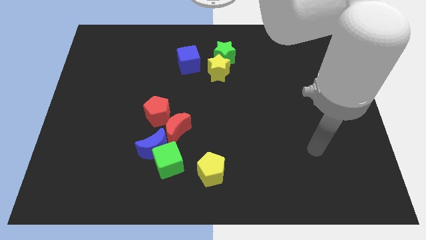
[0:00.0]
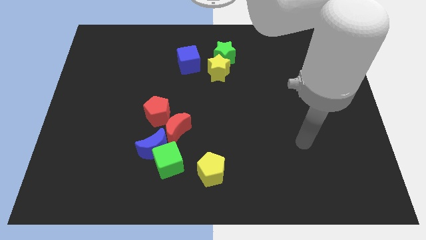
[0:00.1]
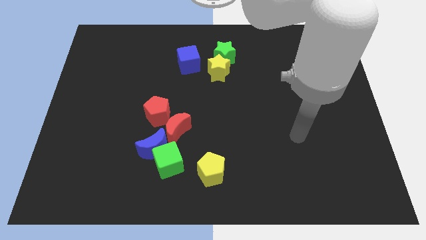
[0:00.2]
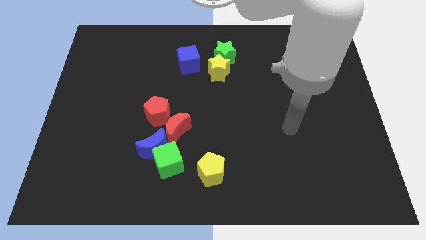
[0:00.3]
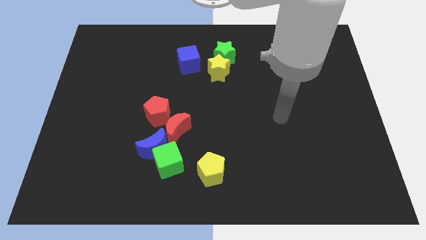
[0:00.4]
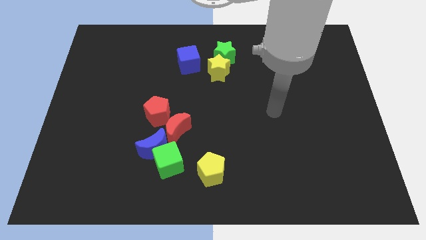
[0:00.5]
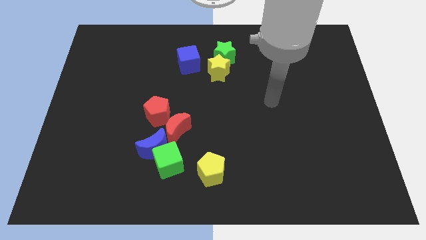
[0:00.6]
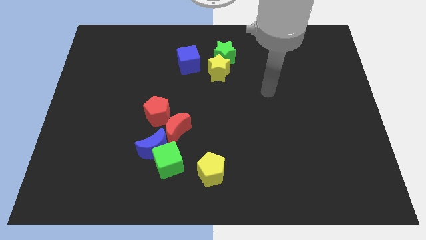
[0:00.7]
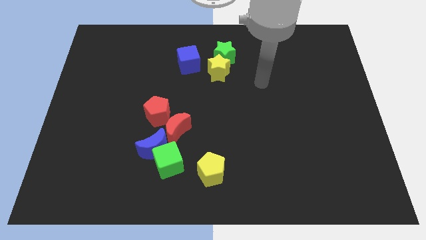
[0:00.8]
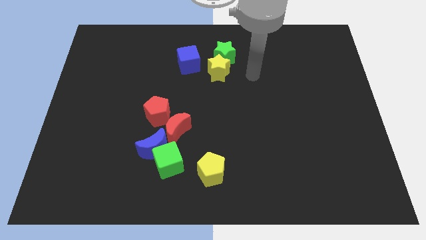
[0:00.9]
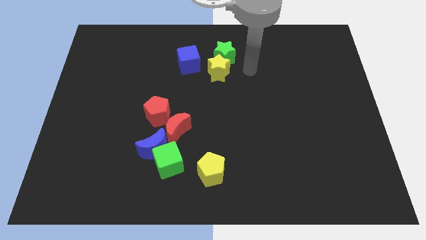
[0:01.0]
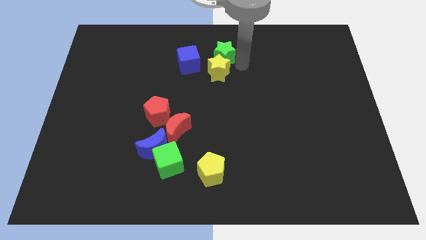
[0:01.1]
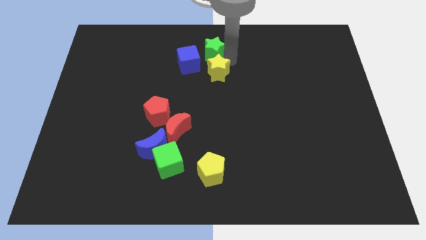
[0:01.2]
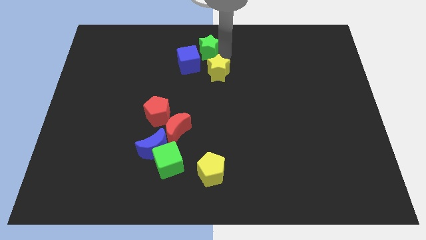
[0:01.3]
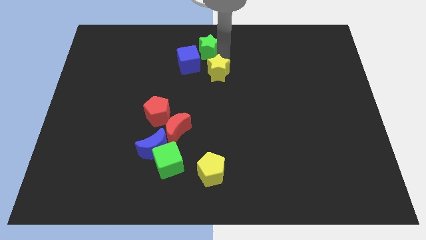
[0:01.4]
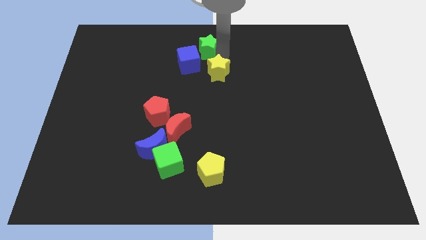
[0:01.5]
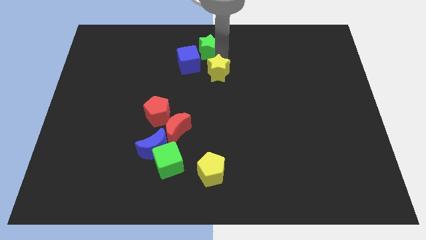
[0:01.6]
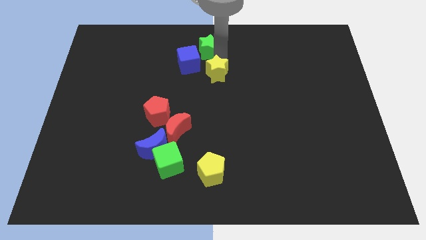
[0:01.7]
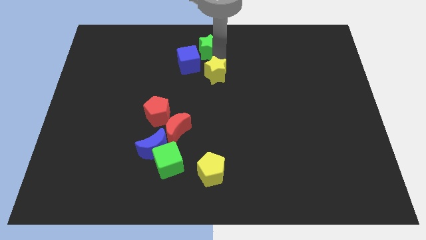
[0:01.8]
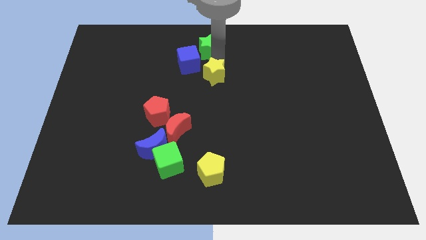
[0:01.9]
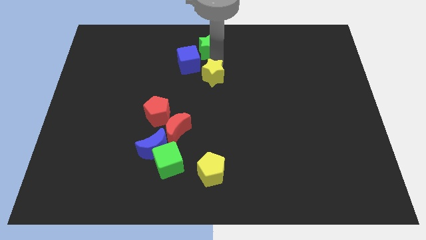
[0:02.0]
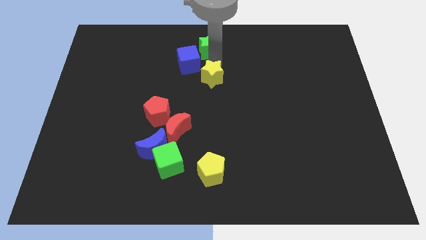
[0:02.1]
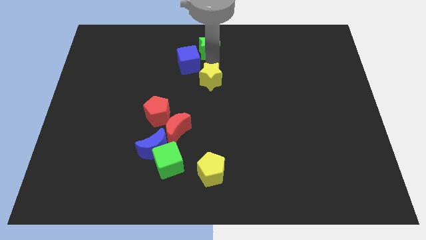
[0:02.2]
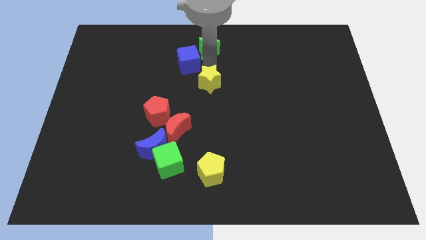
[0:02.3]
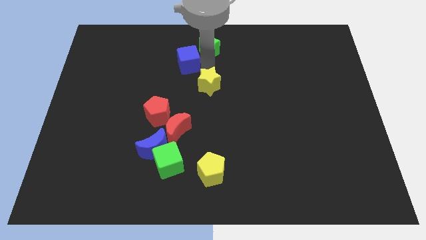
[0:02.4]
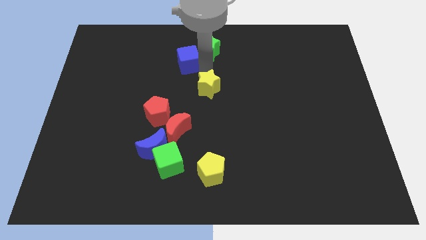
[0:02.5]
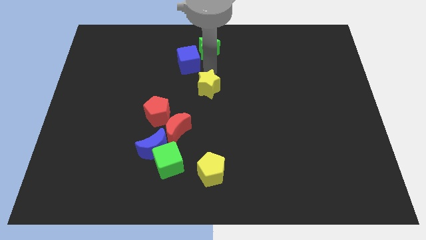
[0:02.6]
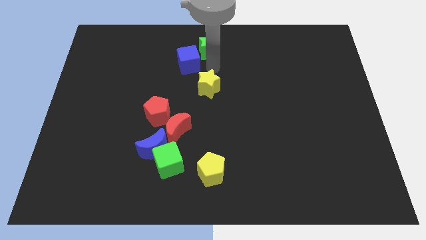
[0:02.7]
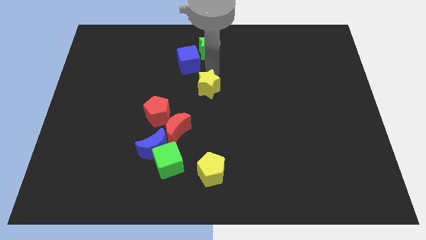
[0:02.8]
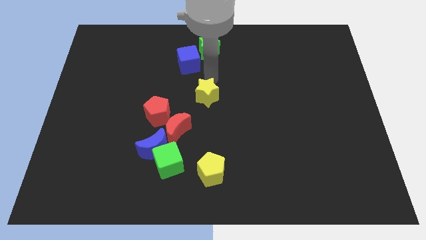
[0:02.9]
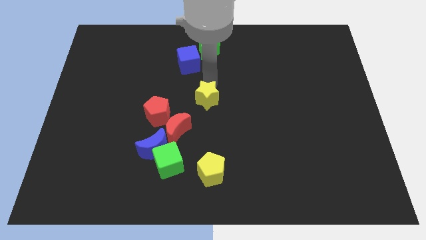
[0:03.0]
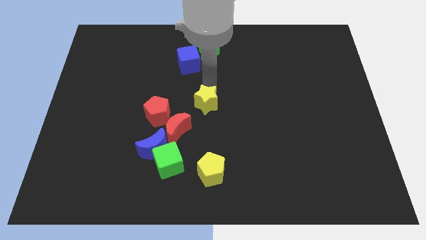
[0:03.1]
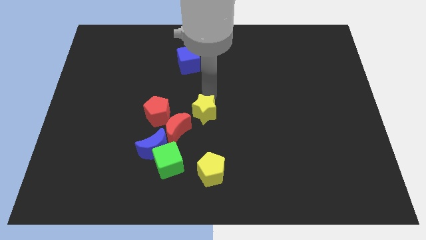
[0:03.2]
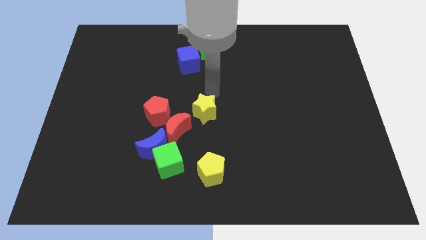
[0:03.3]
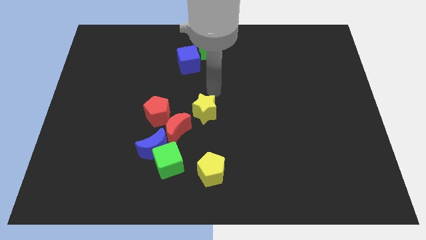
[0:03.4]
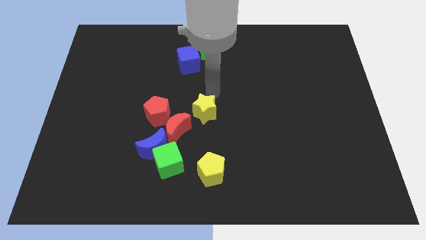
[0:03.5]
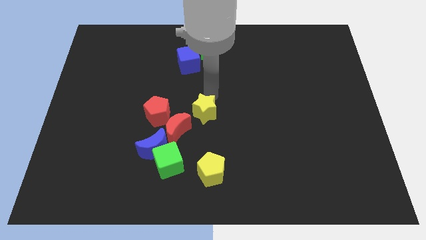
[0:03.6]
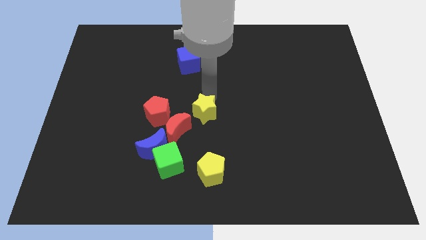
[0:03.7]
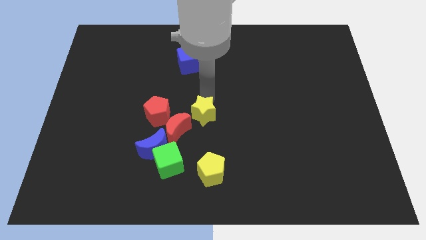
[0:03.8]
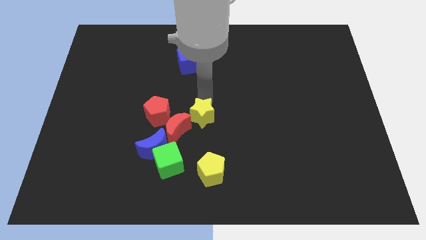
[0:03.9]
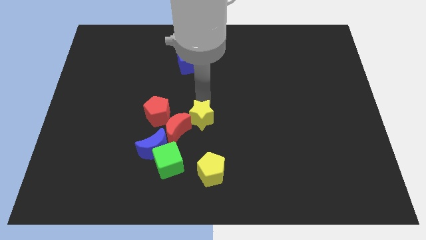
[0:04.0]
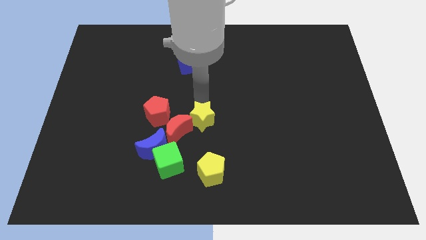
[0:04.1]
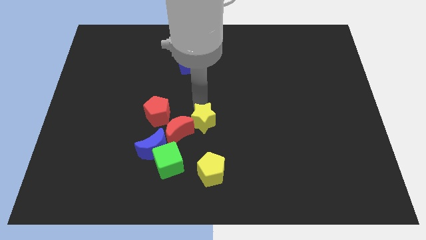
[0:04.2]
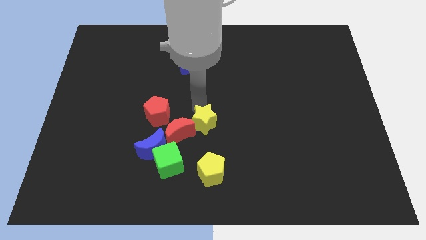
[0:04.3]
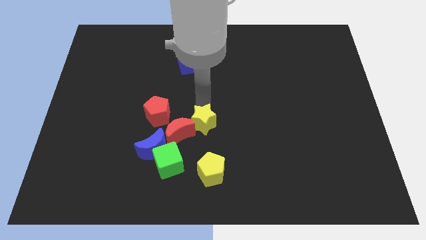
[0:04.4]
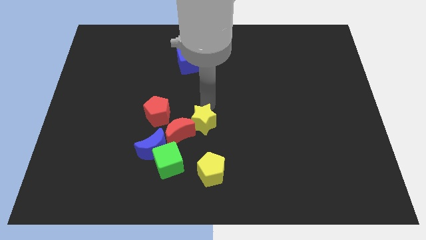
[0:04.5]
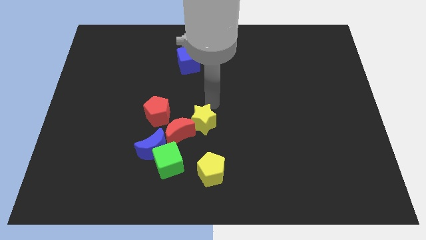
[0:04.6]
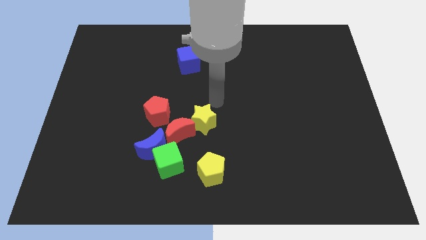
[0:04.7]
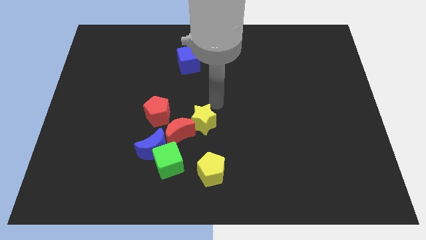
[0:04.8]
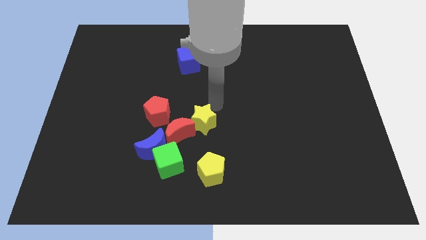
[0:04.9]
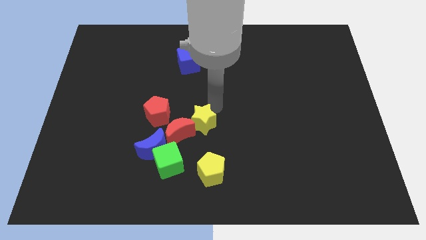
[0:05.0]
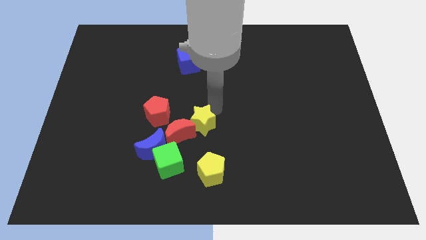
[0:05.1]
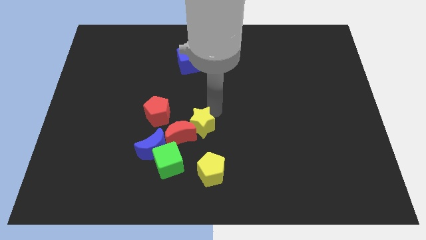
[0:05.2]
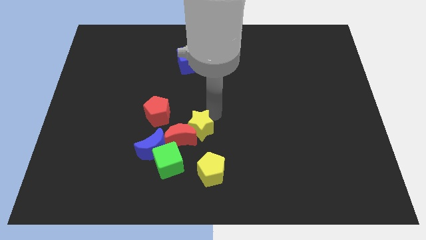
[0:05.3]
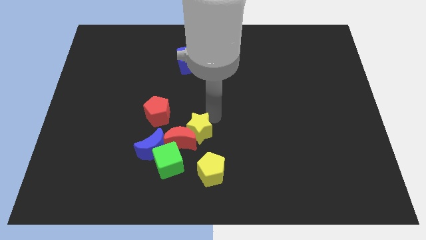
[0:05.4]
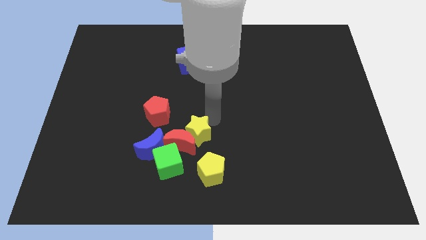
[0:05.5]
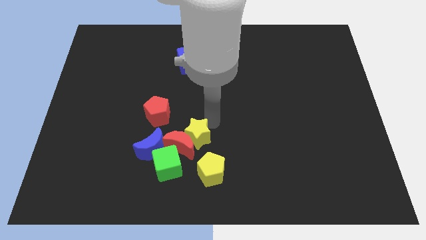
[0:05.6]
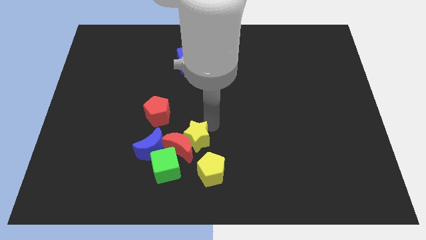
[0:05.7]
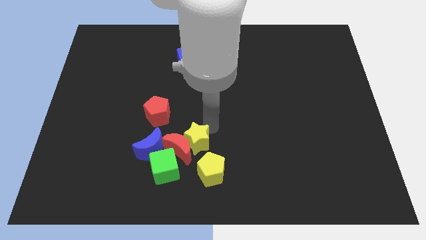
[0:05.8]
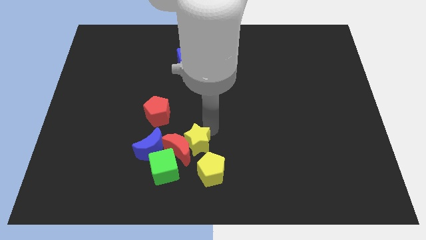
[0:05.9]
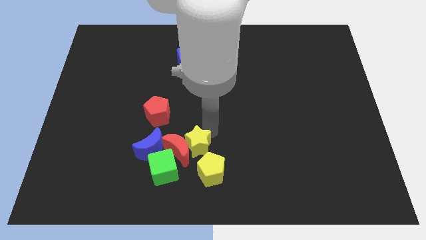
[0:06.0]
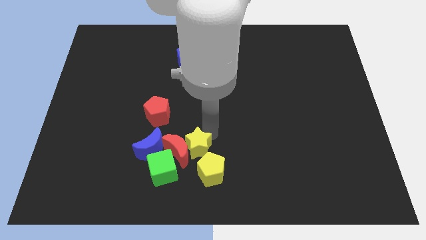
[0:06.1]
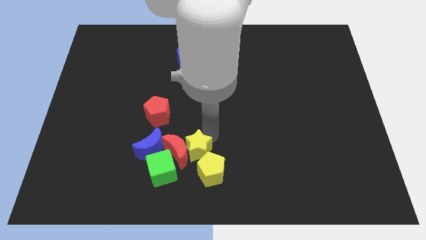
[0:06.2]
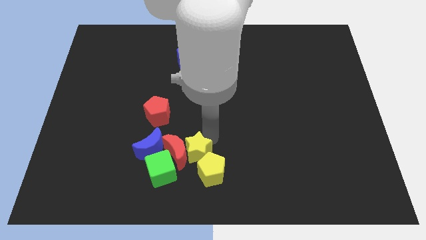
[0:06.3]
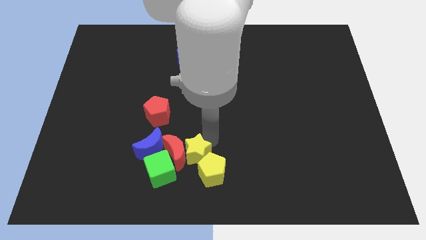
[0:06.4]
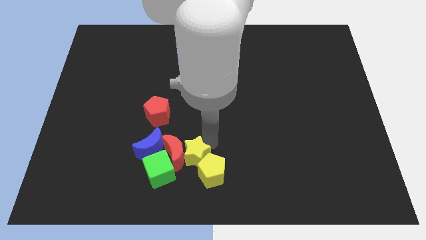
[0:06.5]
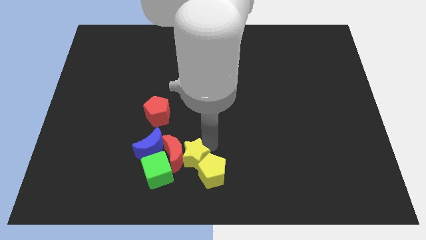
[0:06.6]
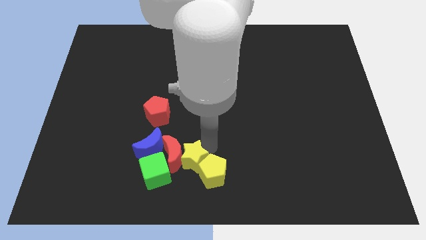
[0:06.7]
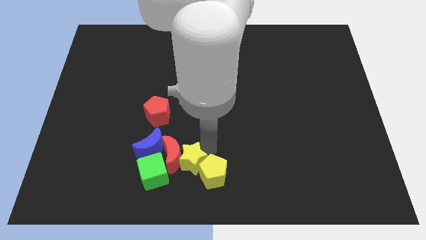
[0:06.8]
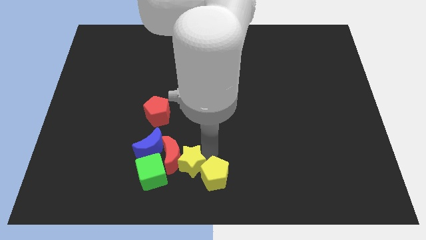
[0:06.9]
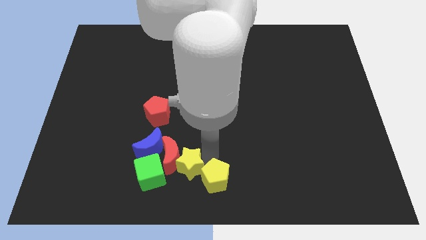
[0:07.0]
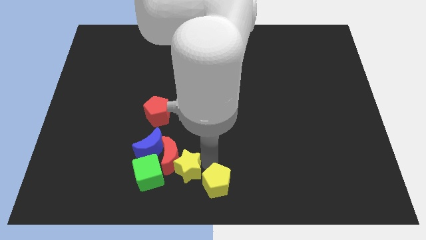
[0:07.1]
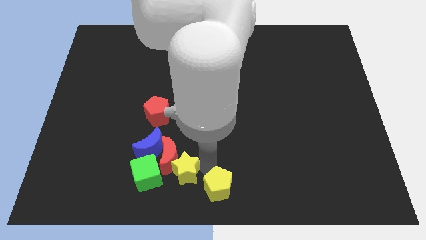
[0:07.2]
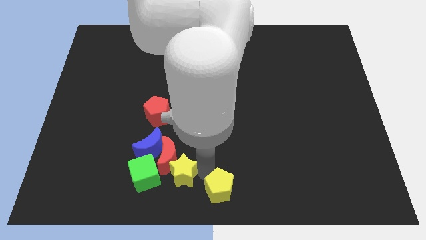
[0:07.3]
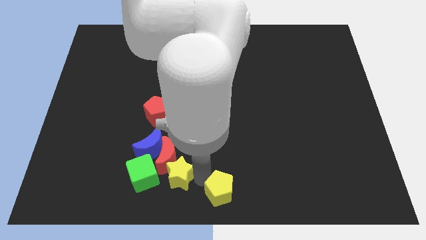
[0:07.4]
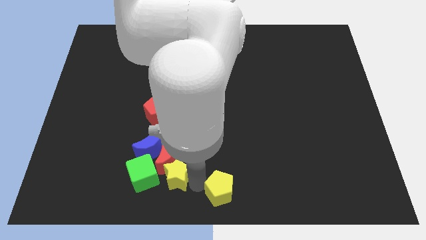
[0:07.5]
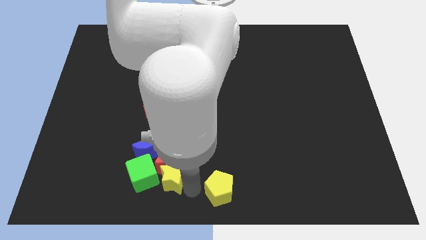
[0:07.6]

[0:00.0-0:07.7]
slide the yellow star to the green cube
